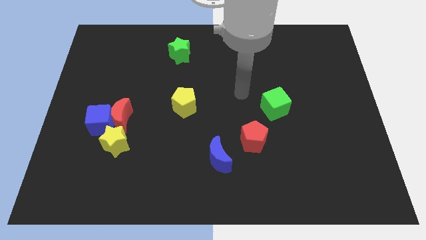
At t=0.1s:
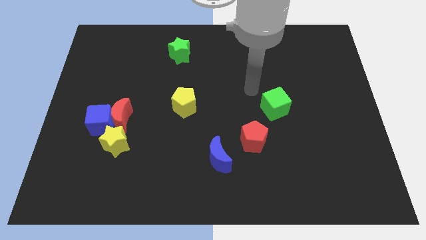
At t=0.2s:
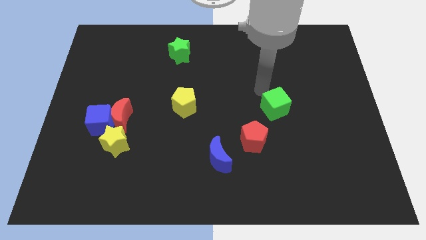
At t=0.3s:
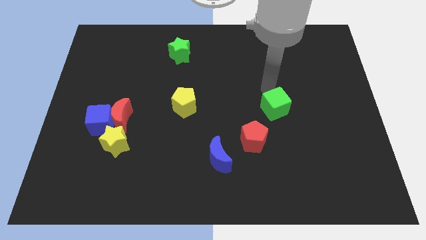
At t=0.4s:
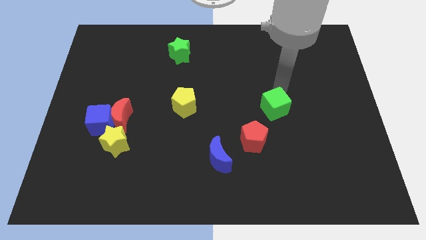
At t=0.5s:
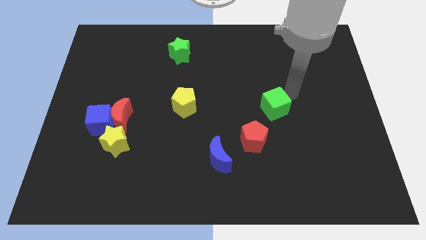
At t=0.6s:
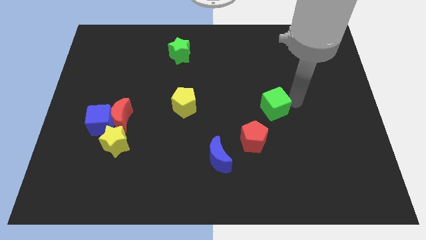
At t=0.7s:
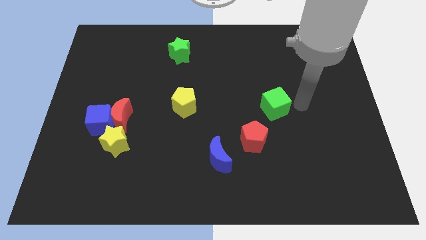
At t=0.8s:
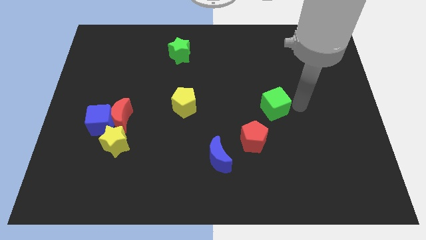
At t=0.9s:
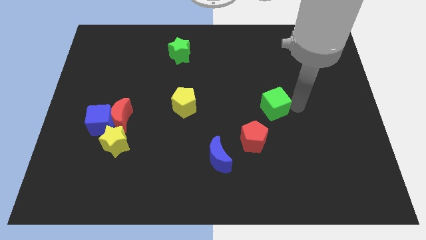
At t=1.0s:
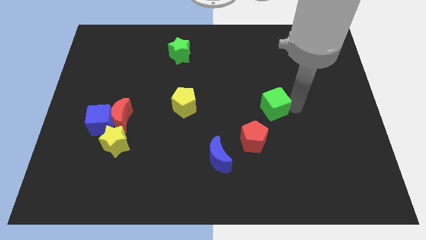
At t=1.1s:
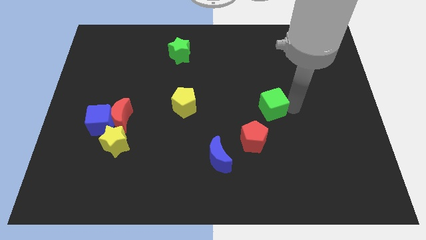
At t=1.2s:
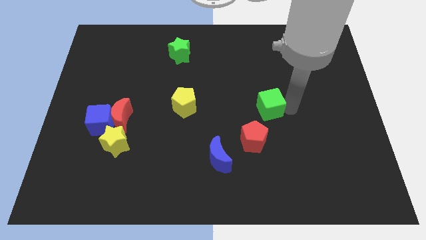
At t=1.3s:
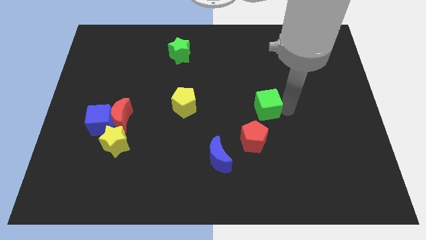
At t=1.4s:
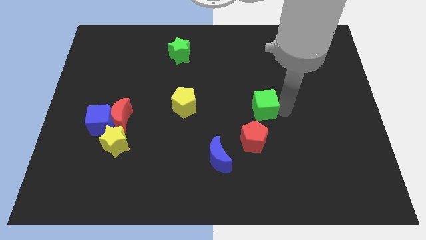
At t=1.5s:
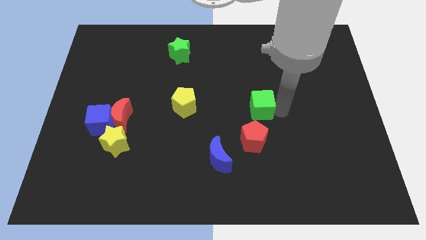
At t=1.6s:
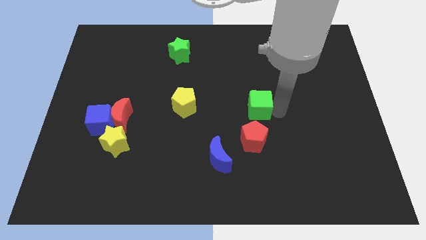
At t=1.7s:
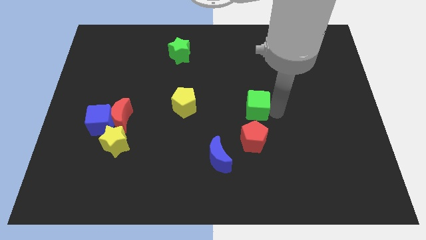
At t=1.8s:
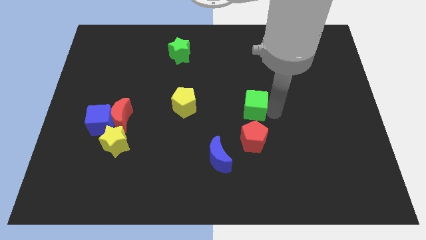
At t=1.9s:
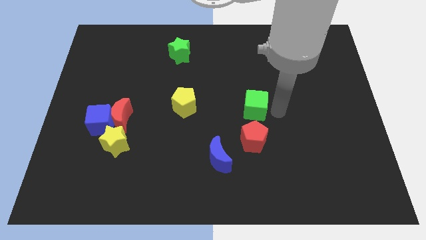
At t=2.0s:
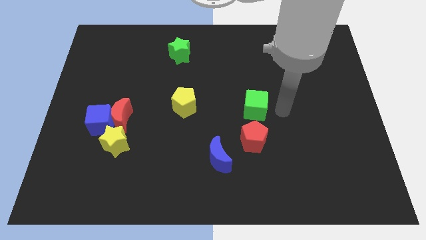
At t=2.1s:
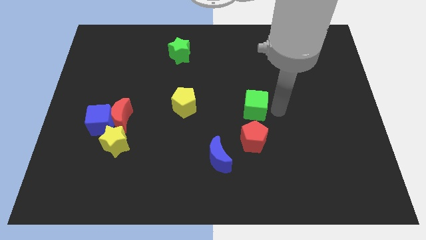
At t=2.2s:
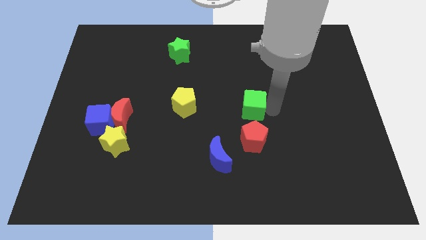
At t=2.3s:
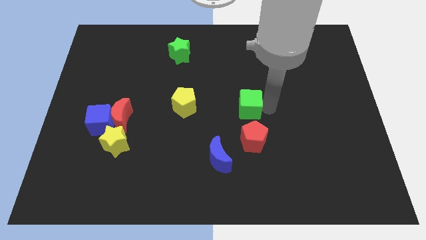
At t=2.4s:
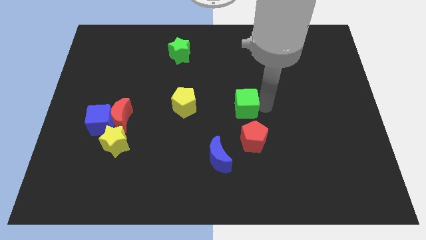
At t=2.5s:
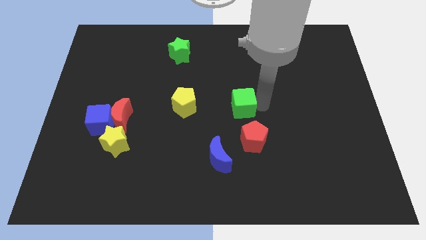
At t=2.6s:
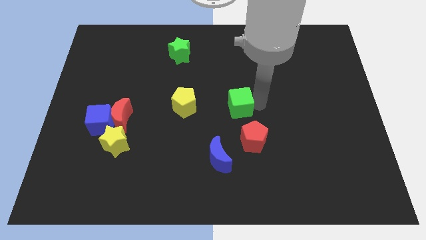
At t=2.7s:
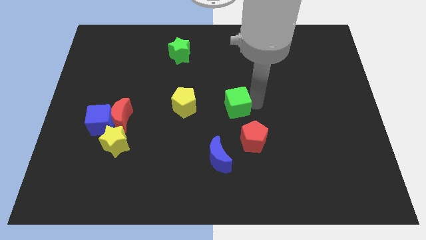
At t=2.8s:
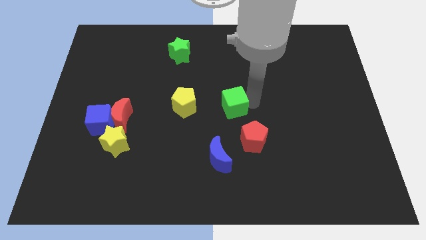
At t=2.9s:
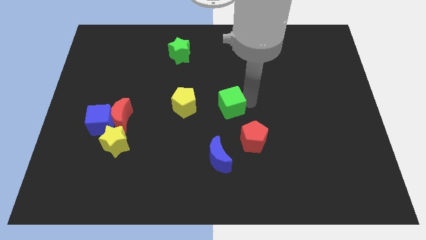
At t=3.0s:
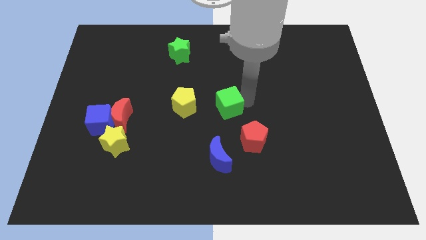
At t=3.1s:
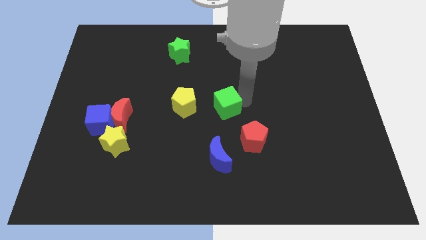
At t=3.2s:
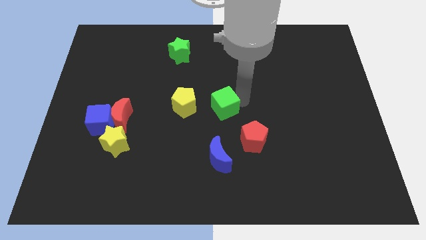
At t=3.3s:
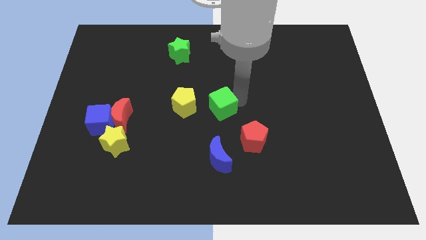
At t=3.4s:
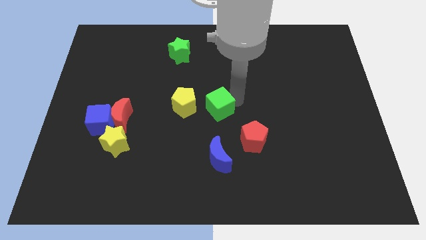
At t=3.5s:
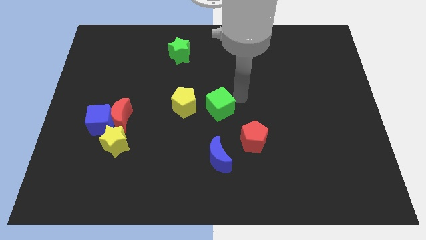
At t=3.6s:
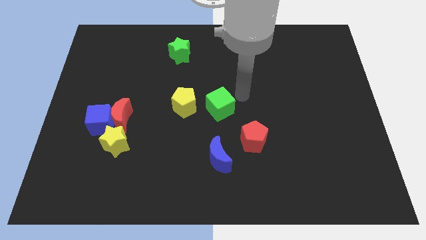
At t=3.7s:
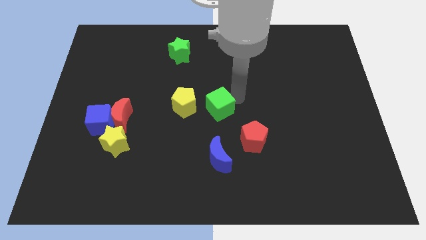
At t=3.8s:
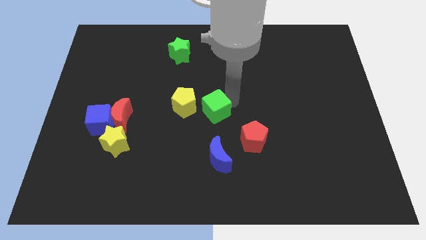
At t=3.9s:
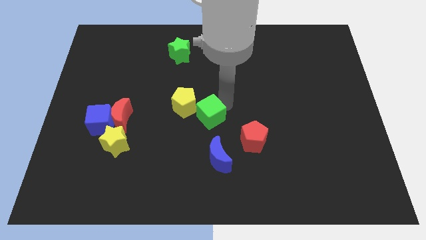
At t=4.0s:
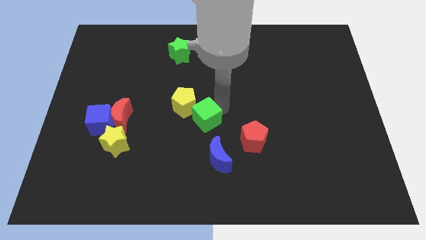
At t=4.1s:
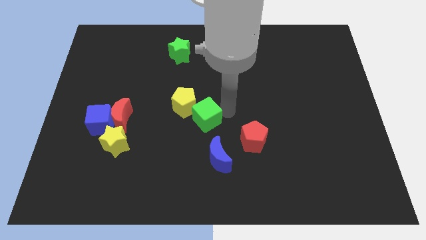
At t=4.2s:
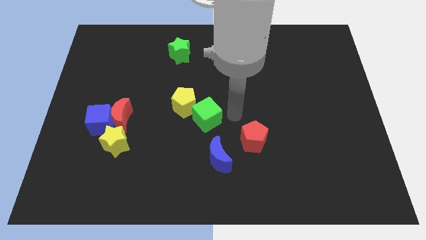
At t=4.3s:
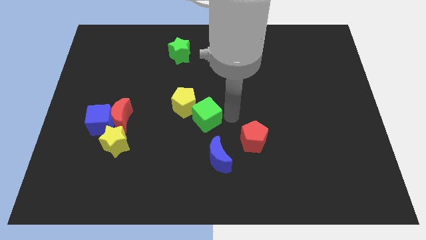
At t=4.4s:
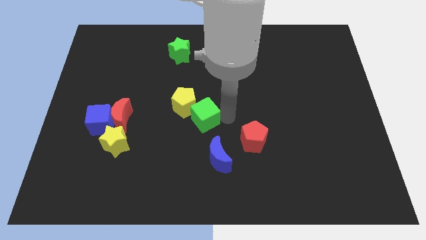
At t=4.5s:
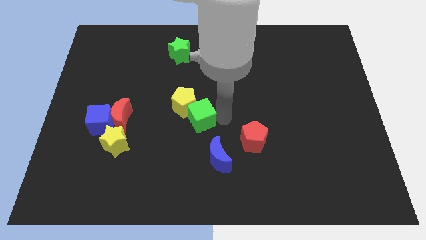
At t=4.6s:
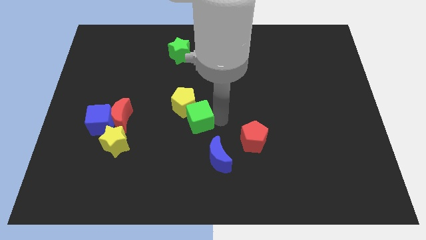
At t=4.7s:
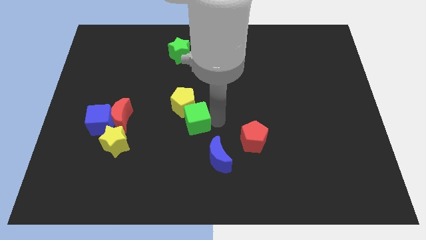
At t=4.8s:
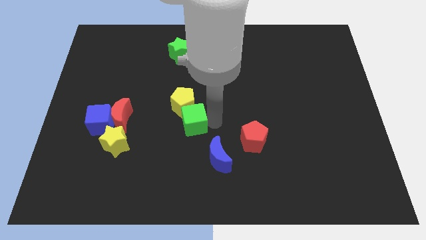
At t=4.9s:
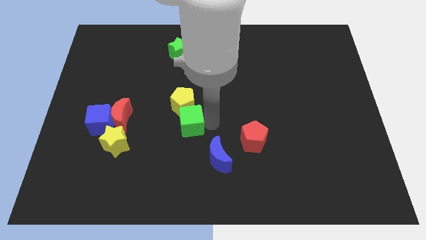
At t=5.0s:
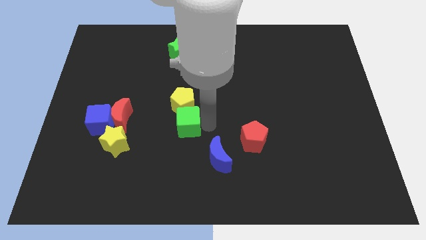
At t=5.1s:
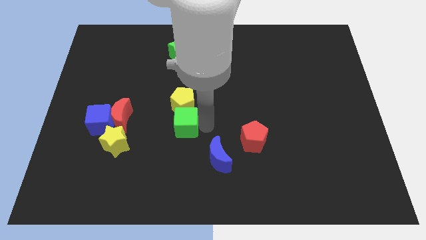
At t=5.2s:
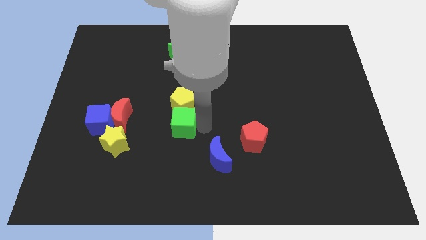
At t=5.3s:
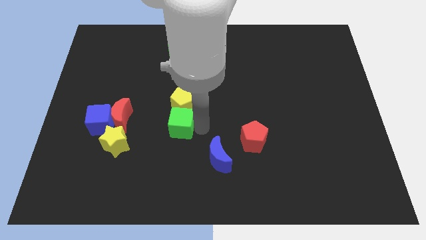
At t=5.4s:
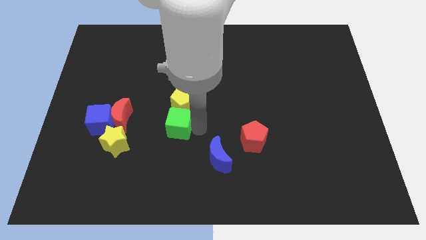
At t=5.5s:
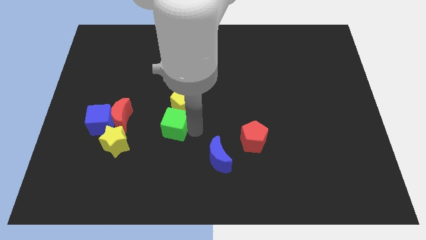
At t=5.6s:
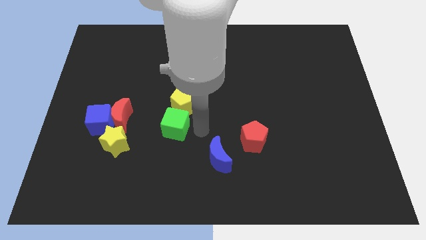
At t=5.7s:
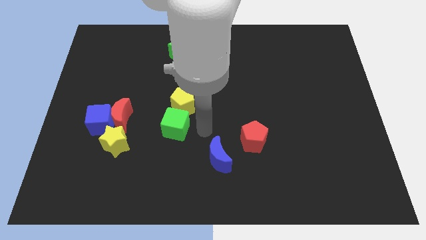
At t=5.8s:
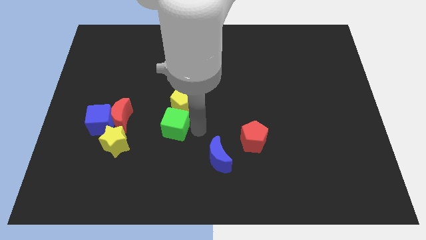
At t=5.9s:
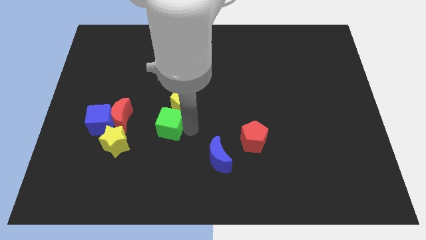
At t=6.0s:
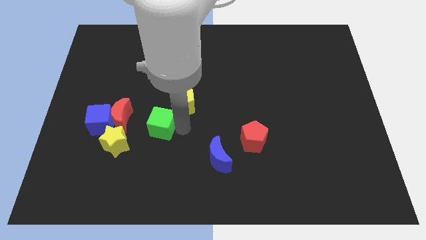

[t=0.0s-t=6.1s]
slide the green cube to the top right of the yellow star

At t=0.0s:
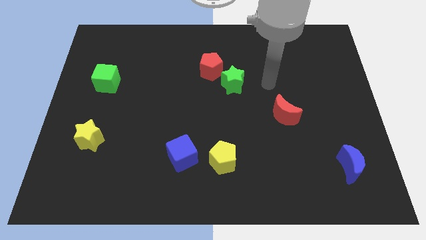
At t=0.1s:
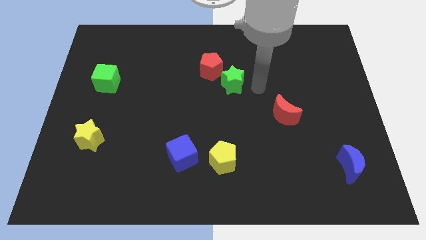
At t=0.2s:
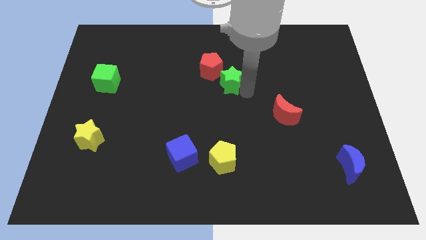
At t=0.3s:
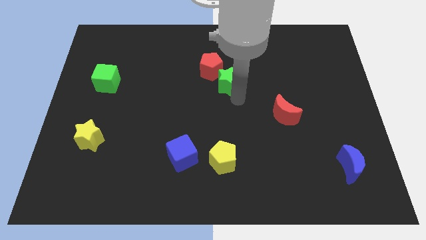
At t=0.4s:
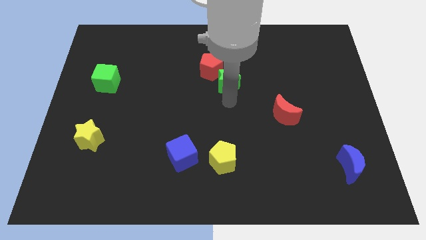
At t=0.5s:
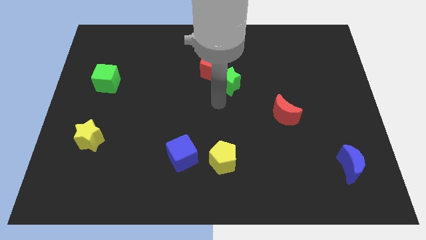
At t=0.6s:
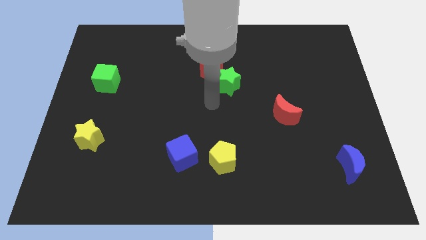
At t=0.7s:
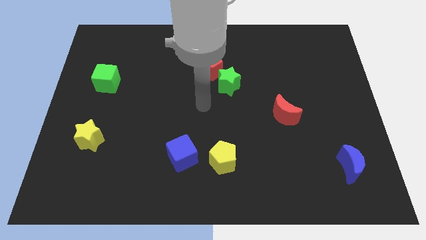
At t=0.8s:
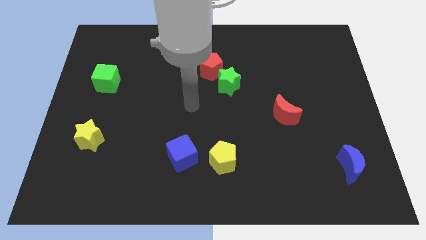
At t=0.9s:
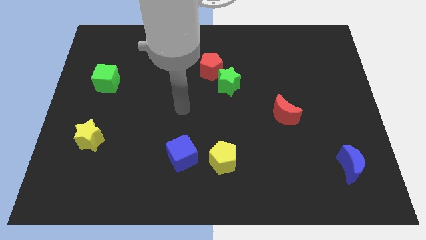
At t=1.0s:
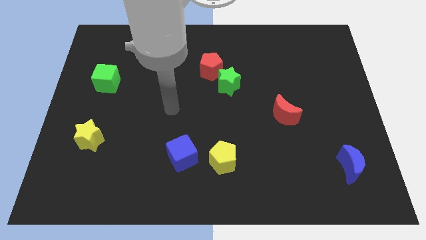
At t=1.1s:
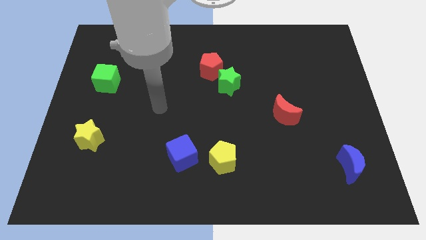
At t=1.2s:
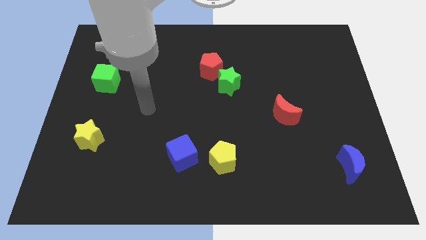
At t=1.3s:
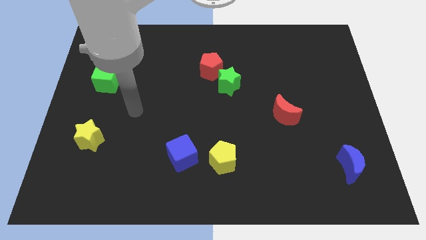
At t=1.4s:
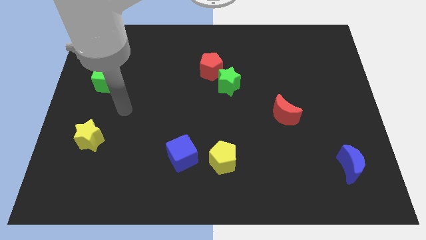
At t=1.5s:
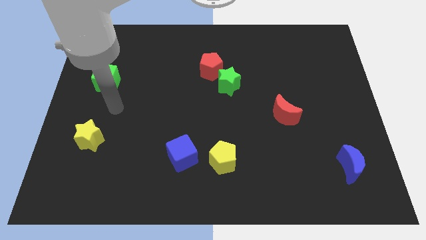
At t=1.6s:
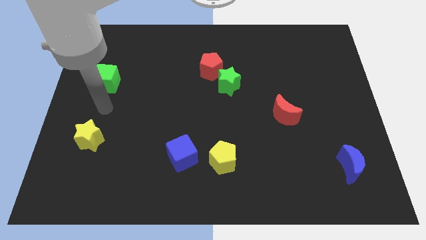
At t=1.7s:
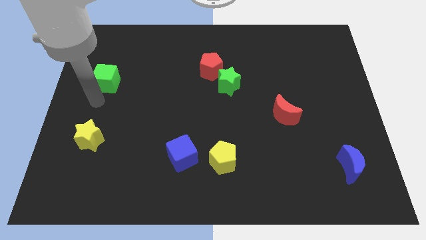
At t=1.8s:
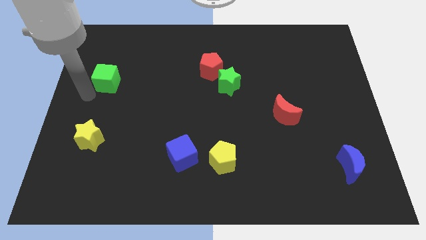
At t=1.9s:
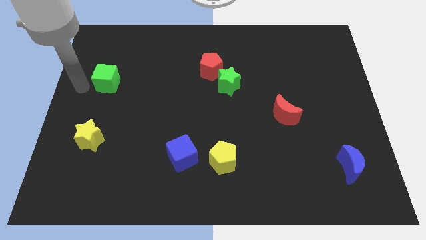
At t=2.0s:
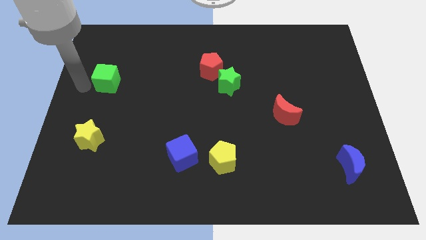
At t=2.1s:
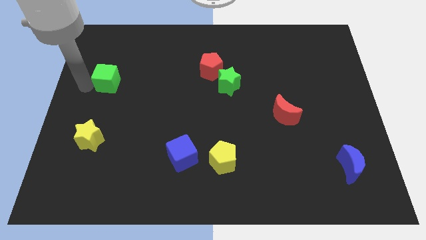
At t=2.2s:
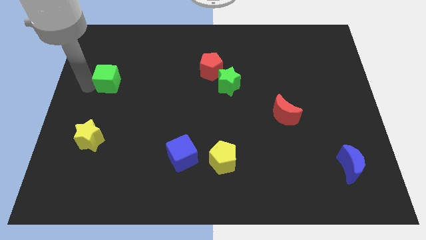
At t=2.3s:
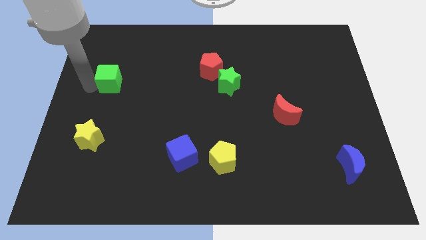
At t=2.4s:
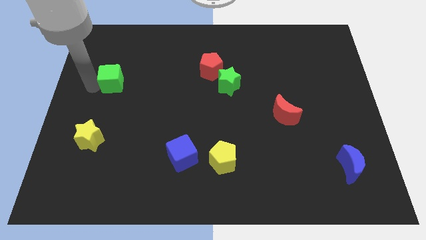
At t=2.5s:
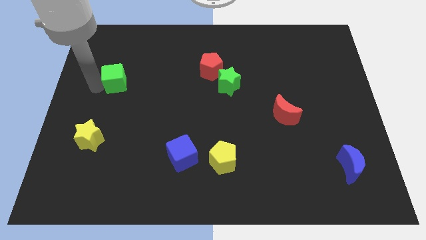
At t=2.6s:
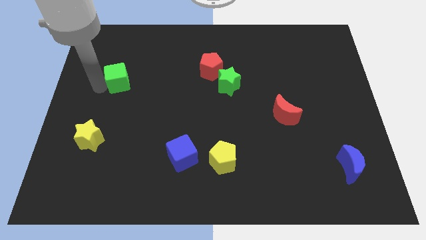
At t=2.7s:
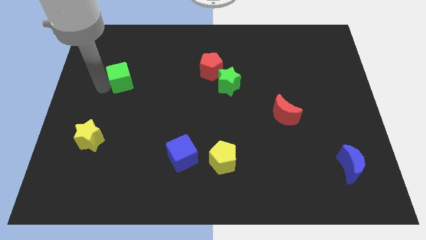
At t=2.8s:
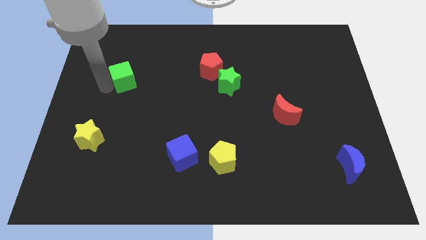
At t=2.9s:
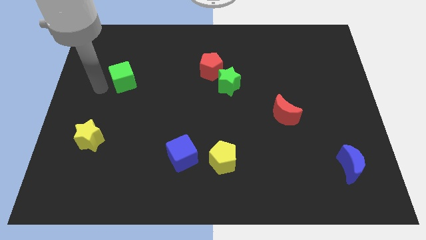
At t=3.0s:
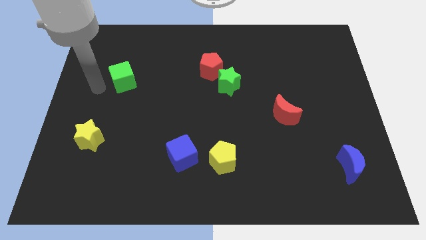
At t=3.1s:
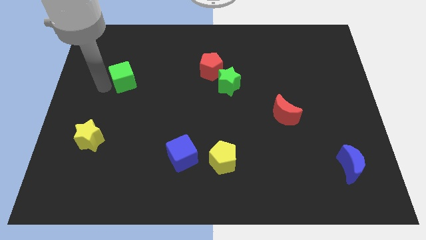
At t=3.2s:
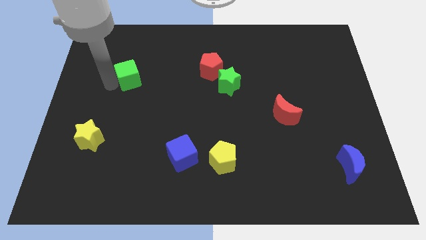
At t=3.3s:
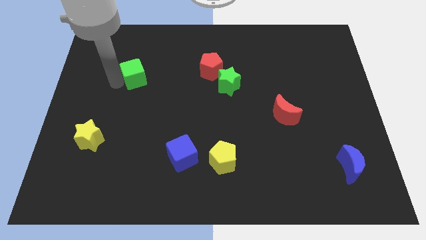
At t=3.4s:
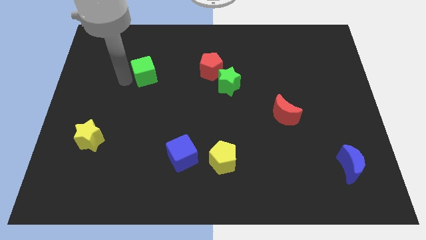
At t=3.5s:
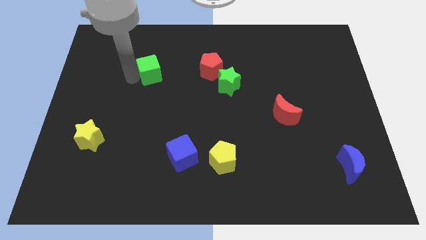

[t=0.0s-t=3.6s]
slide the green cube just left of the red pentagon
